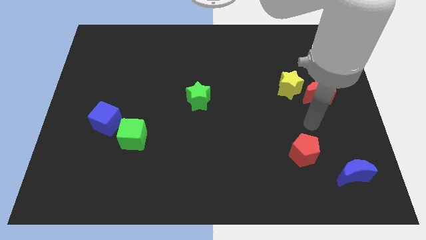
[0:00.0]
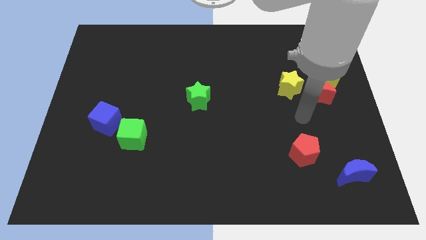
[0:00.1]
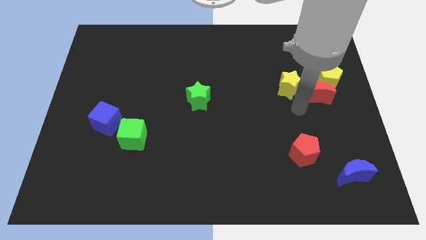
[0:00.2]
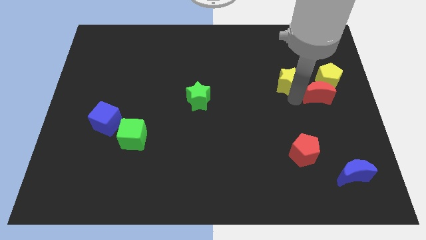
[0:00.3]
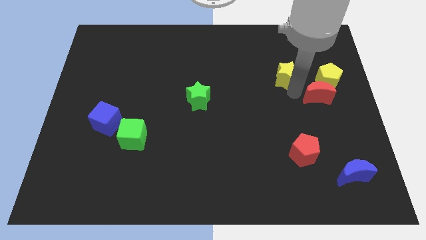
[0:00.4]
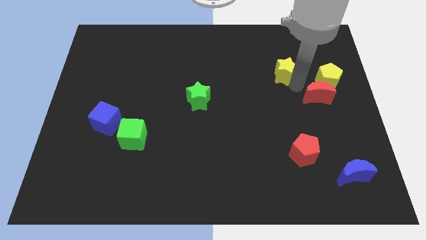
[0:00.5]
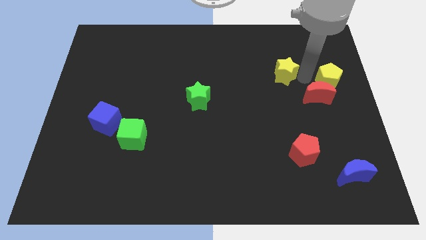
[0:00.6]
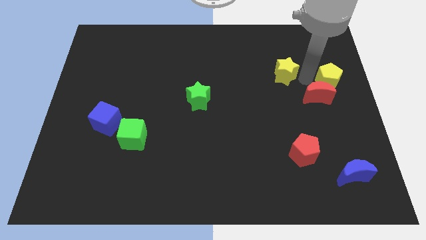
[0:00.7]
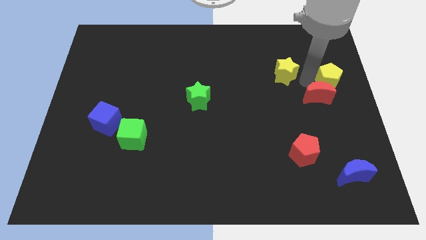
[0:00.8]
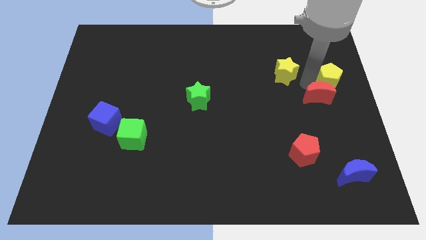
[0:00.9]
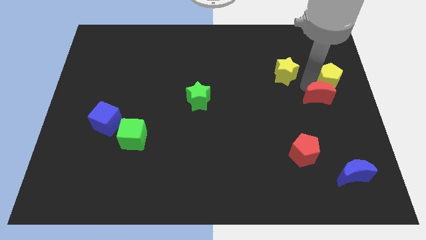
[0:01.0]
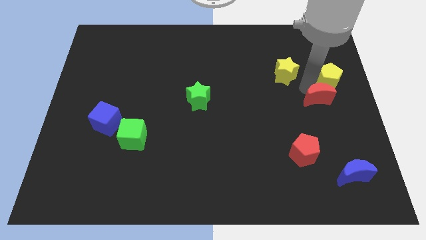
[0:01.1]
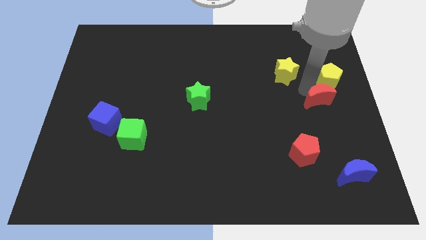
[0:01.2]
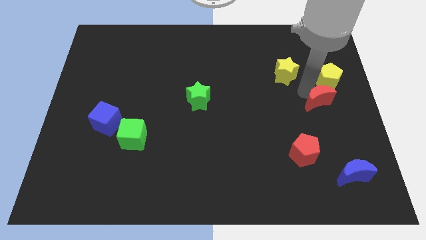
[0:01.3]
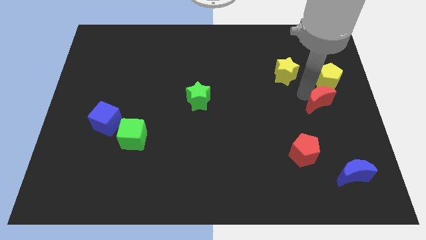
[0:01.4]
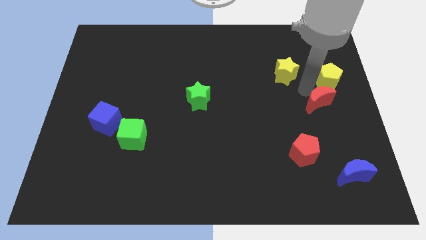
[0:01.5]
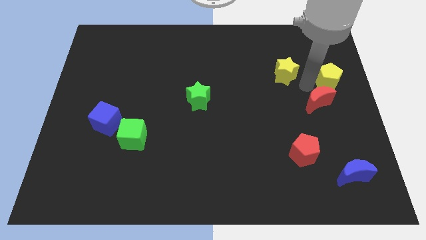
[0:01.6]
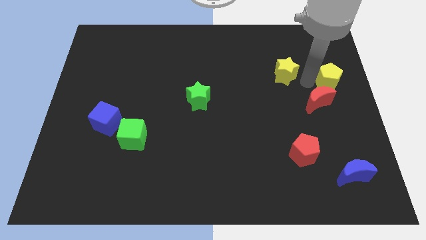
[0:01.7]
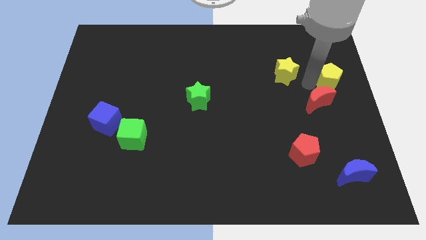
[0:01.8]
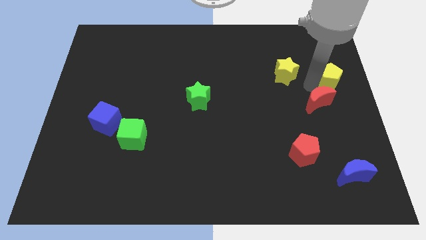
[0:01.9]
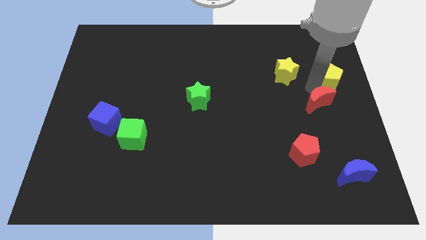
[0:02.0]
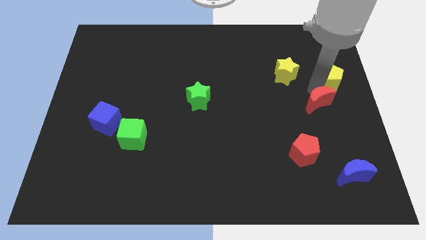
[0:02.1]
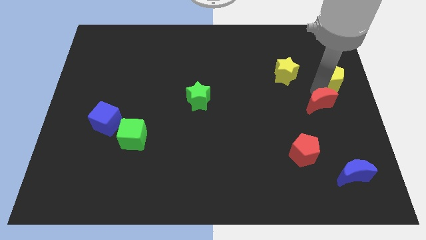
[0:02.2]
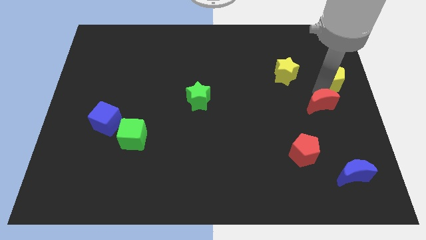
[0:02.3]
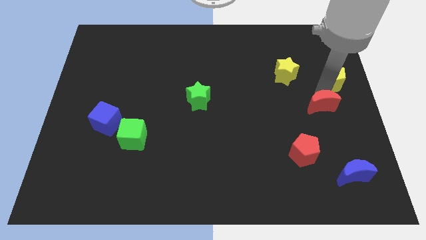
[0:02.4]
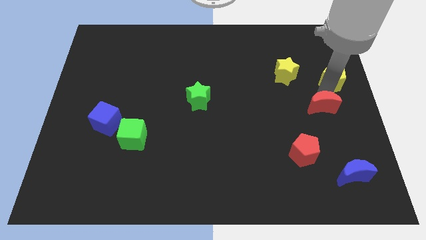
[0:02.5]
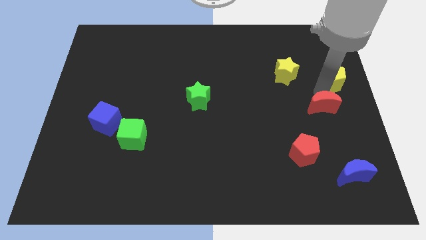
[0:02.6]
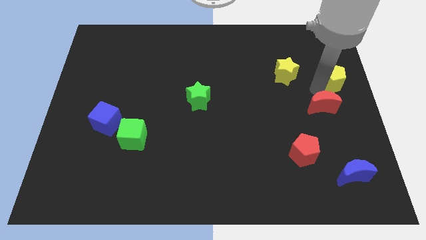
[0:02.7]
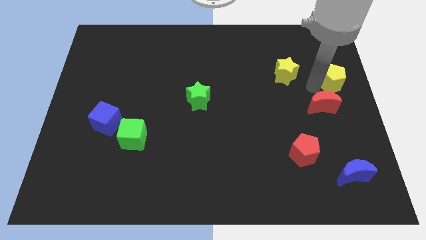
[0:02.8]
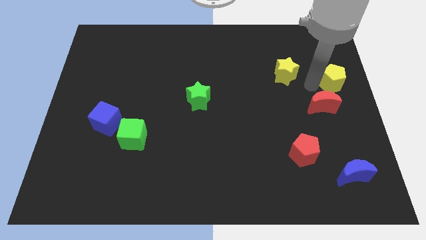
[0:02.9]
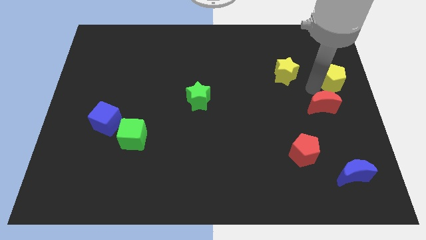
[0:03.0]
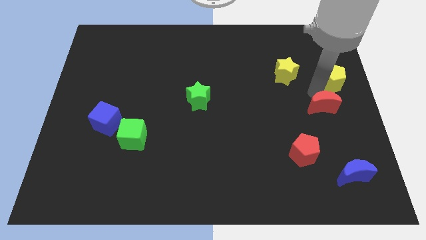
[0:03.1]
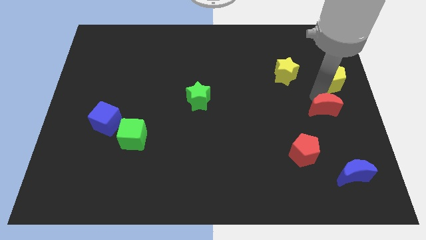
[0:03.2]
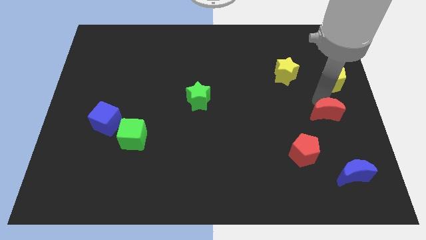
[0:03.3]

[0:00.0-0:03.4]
pull the red moon apart from the yellow pentagon and yellow star

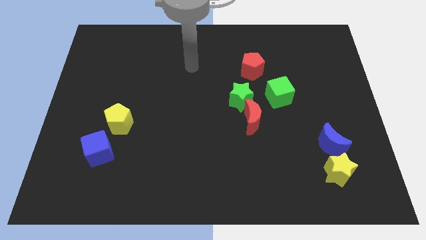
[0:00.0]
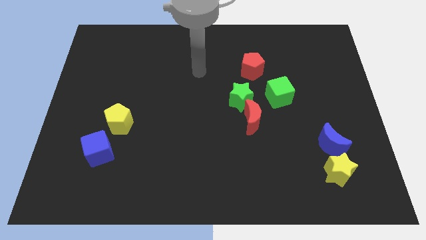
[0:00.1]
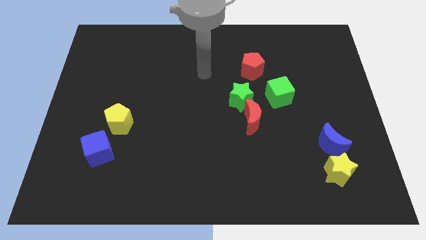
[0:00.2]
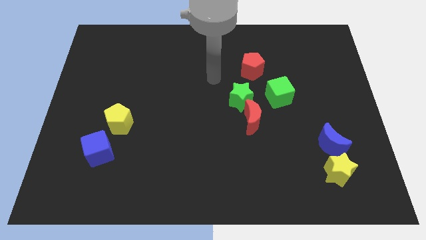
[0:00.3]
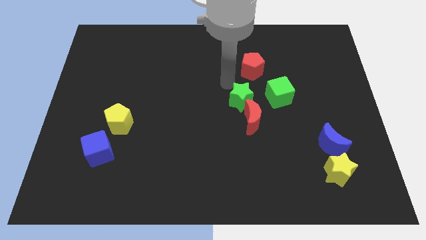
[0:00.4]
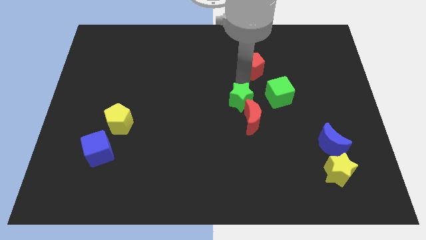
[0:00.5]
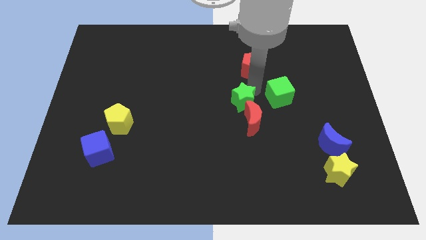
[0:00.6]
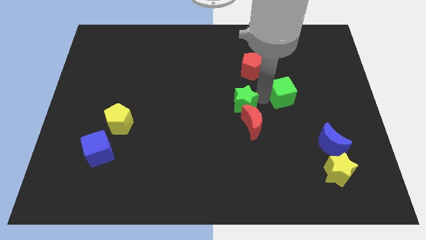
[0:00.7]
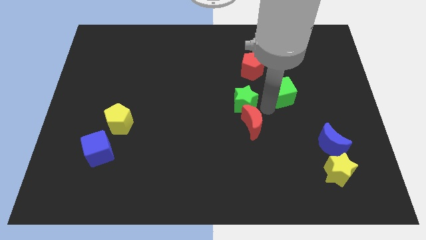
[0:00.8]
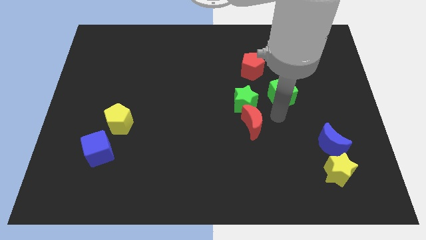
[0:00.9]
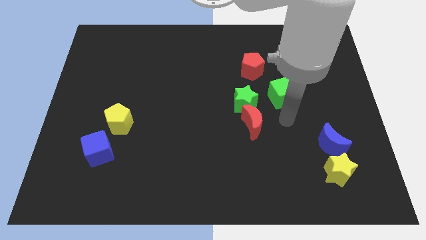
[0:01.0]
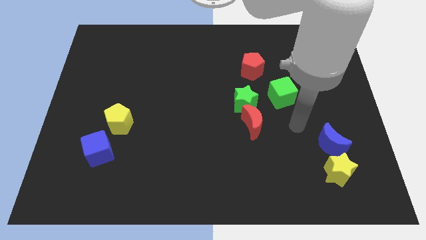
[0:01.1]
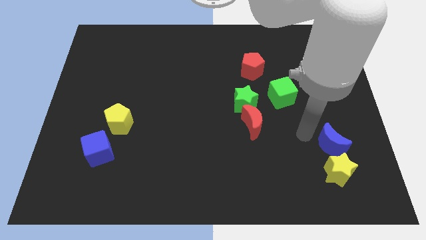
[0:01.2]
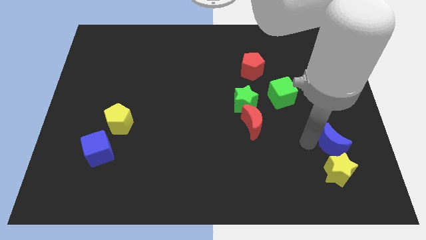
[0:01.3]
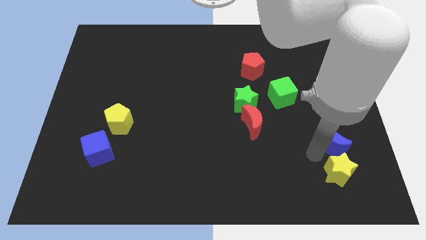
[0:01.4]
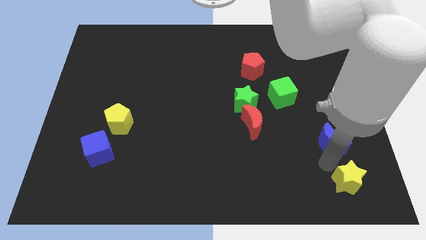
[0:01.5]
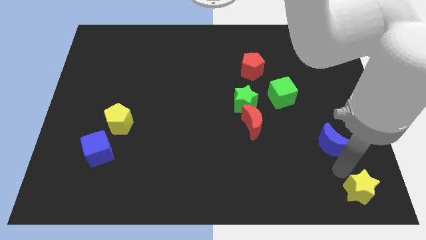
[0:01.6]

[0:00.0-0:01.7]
pull the blue moon apart from the yellow star

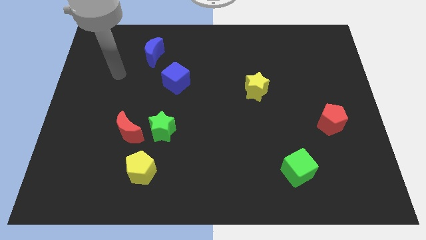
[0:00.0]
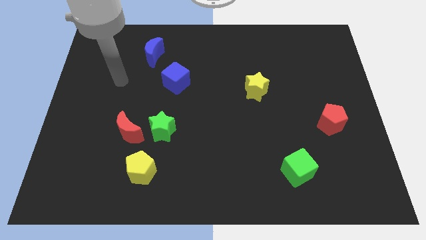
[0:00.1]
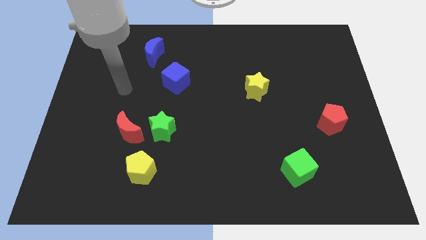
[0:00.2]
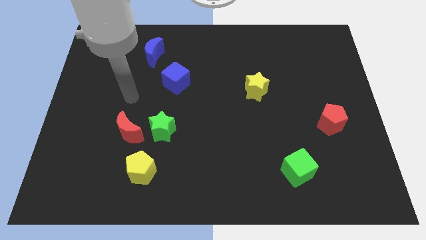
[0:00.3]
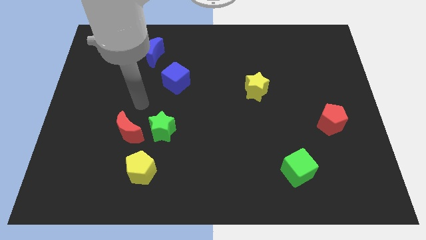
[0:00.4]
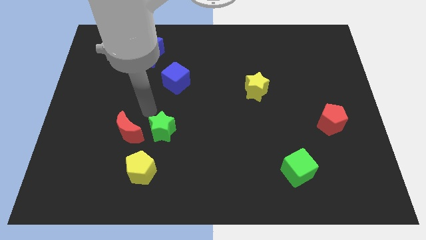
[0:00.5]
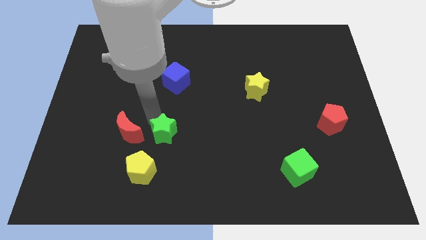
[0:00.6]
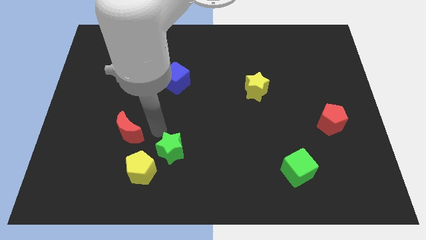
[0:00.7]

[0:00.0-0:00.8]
separate the red moon from the green star

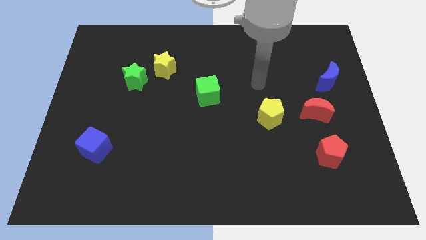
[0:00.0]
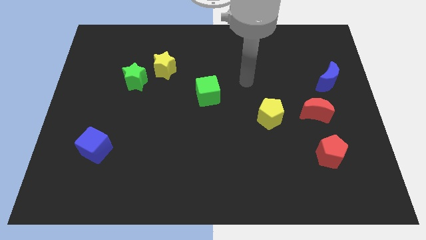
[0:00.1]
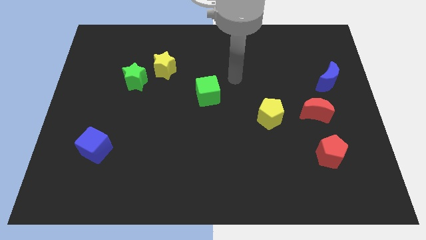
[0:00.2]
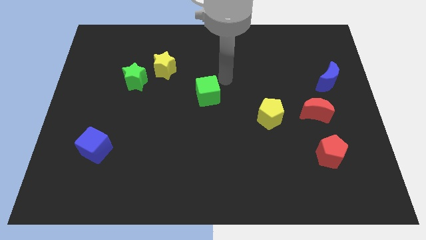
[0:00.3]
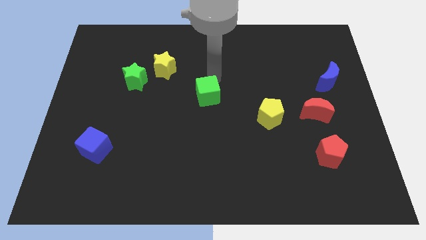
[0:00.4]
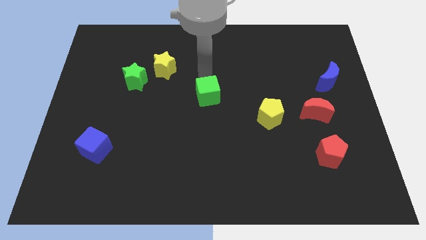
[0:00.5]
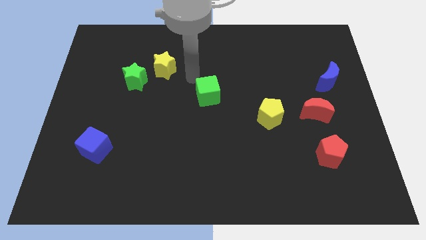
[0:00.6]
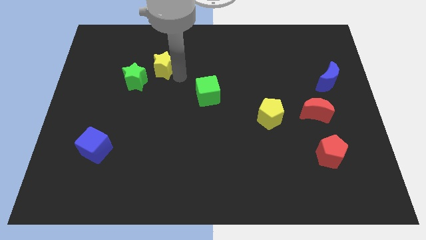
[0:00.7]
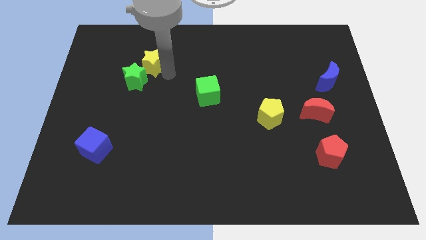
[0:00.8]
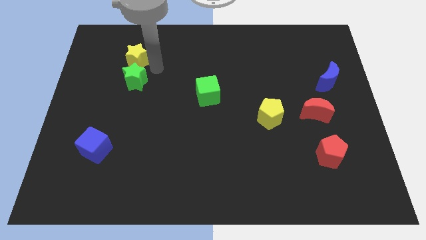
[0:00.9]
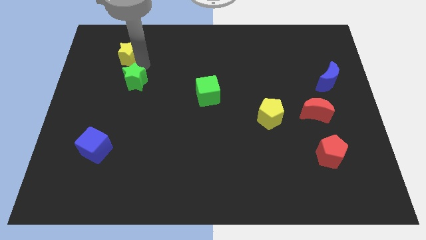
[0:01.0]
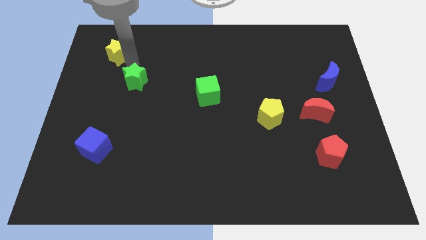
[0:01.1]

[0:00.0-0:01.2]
separate the green star from the yellow star

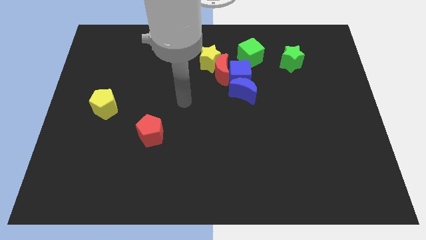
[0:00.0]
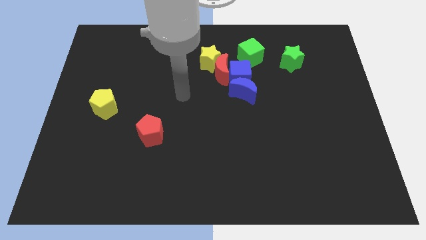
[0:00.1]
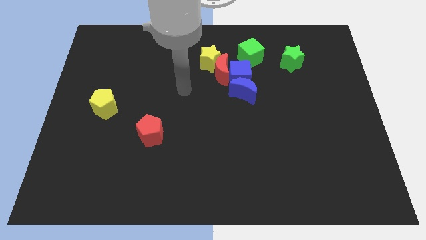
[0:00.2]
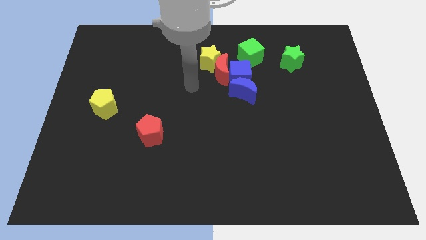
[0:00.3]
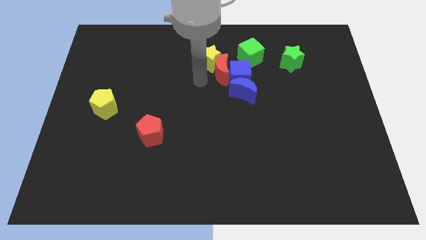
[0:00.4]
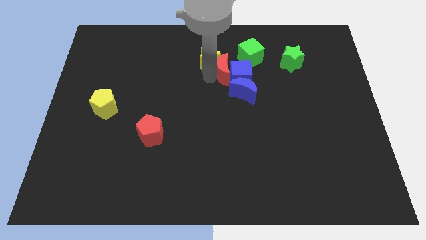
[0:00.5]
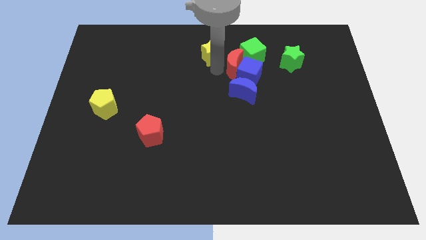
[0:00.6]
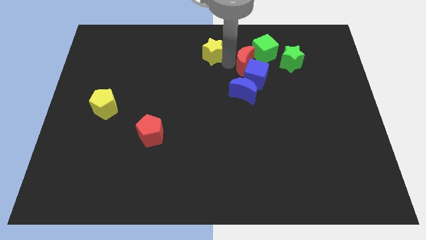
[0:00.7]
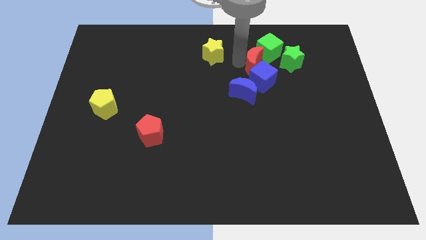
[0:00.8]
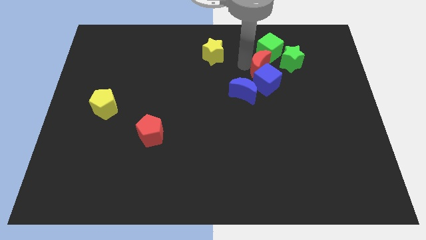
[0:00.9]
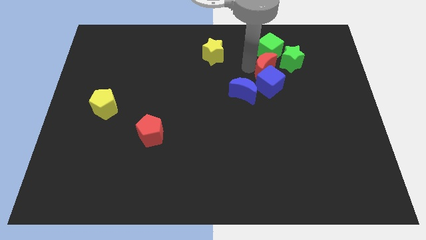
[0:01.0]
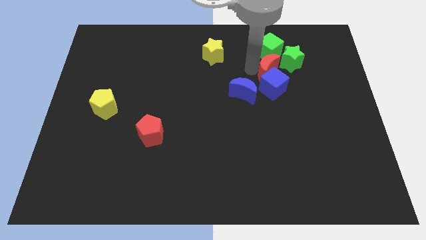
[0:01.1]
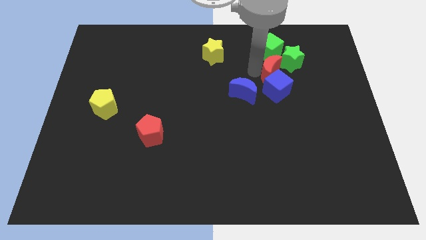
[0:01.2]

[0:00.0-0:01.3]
pull the blue cube apart from the group of blocks

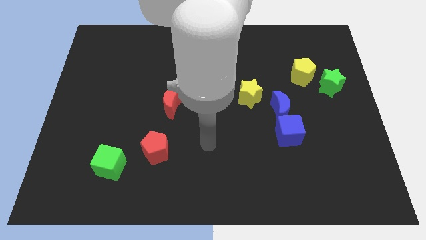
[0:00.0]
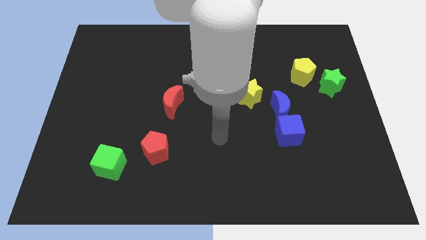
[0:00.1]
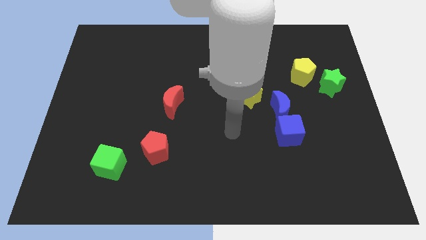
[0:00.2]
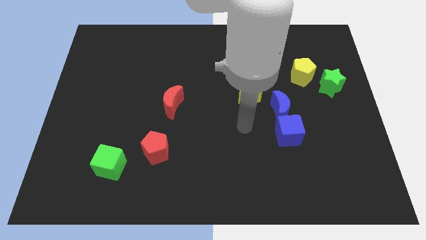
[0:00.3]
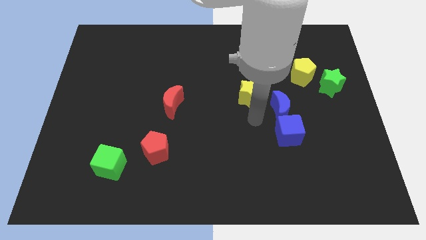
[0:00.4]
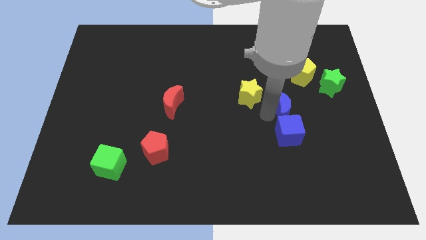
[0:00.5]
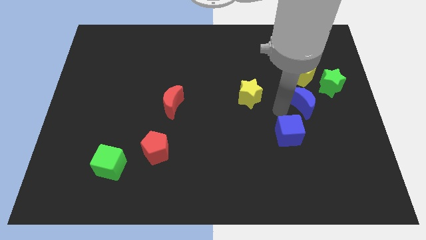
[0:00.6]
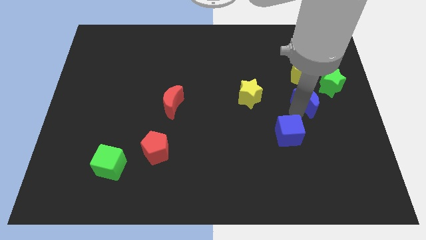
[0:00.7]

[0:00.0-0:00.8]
separate the blue cube from the blue moon
